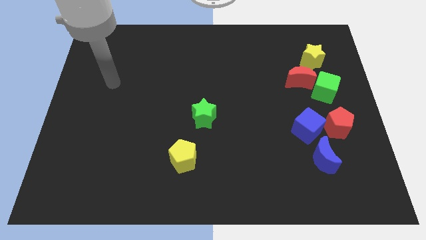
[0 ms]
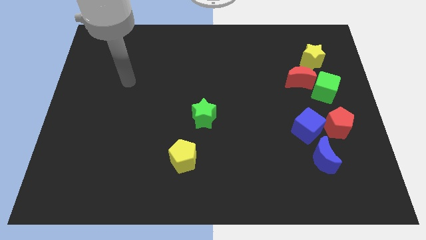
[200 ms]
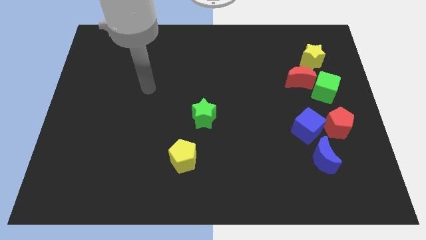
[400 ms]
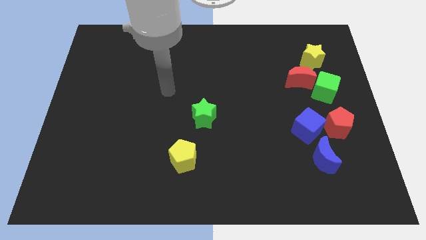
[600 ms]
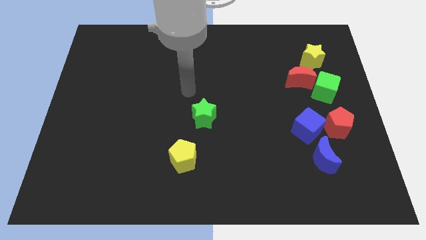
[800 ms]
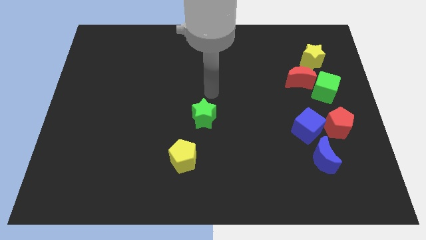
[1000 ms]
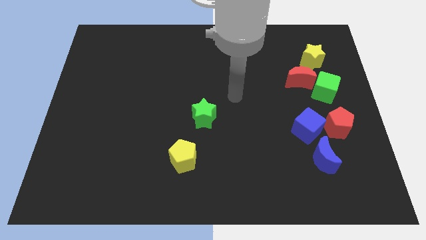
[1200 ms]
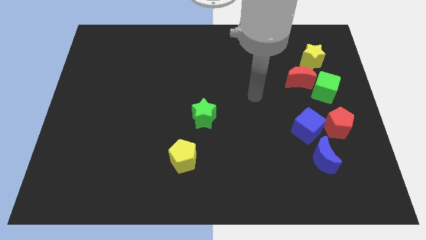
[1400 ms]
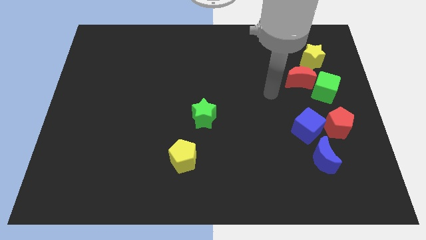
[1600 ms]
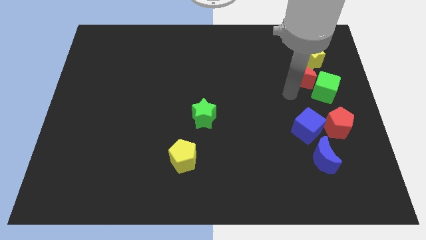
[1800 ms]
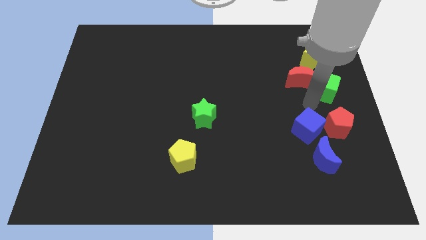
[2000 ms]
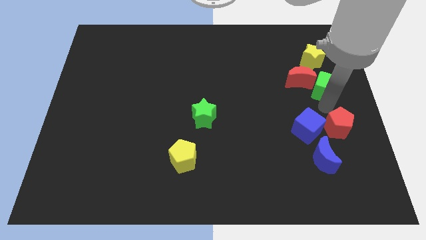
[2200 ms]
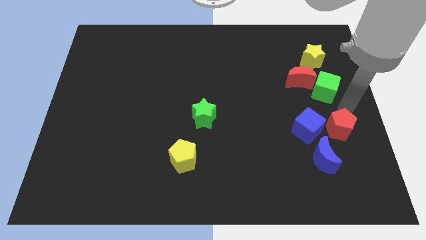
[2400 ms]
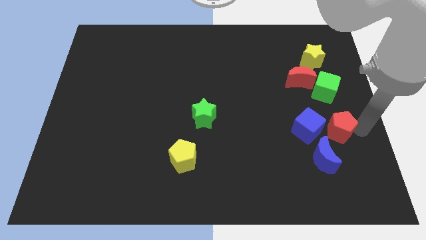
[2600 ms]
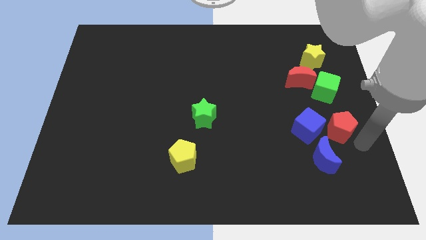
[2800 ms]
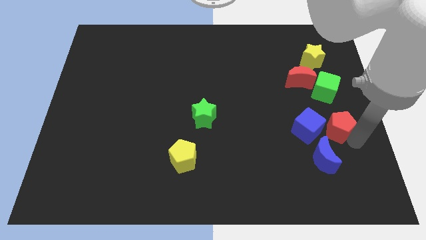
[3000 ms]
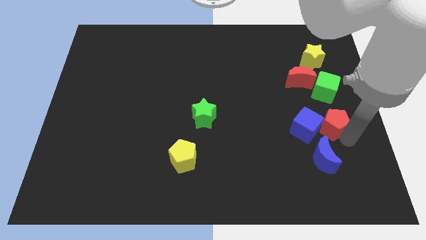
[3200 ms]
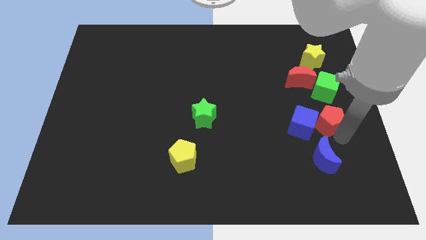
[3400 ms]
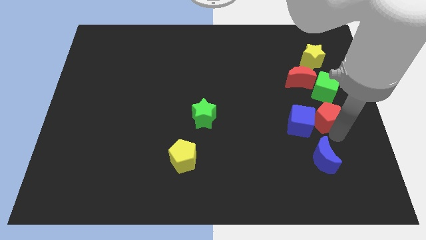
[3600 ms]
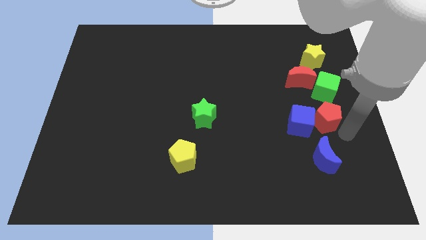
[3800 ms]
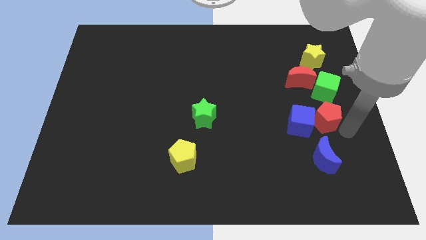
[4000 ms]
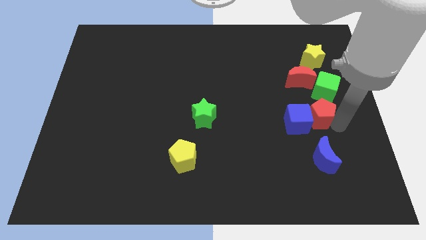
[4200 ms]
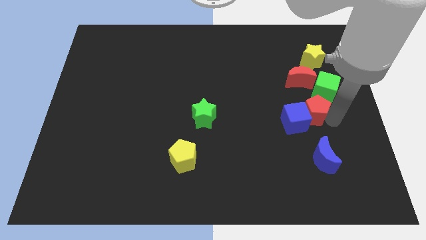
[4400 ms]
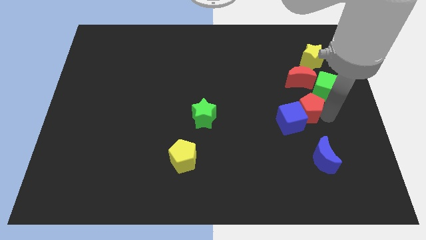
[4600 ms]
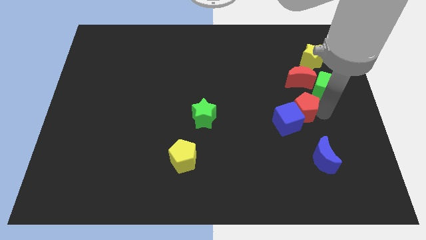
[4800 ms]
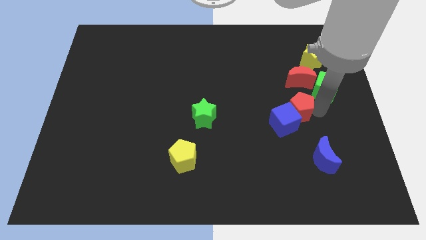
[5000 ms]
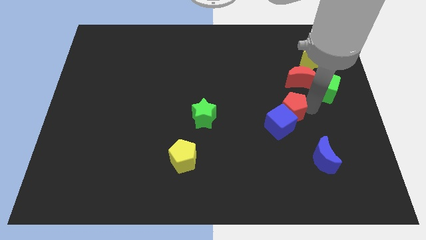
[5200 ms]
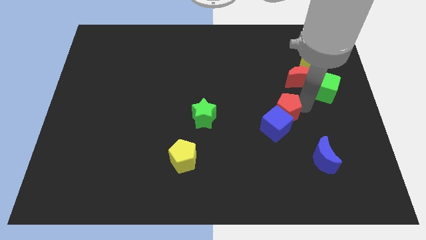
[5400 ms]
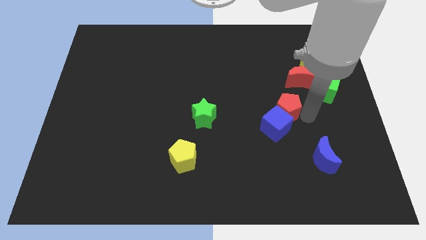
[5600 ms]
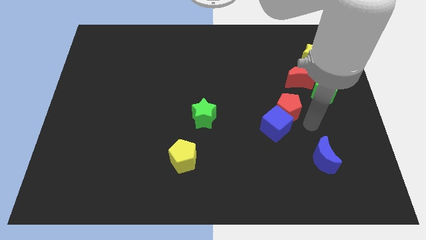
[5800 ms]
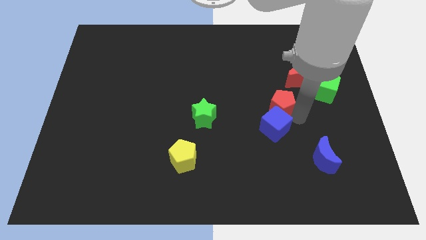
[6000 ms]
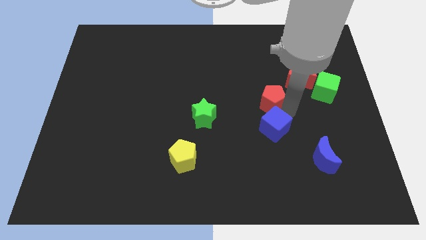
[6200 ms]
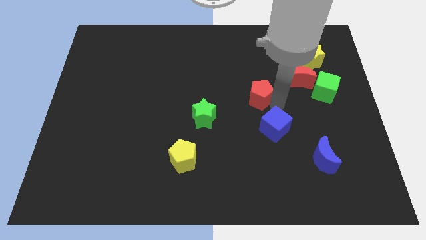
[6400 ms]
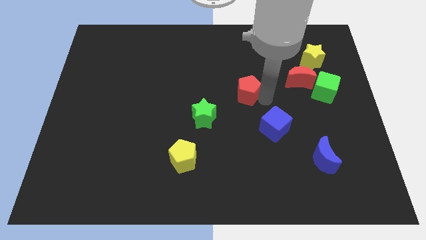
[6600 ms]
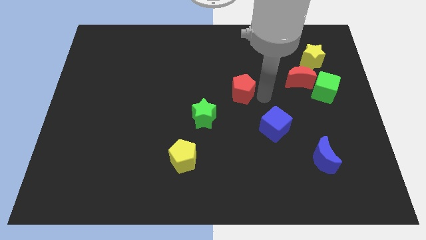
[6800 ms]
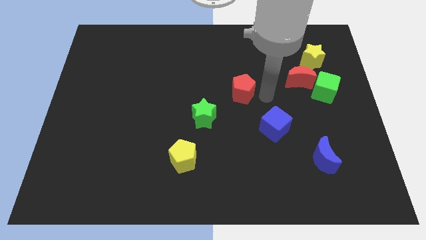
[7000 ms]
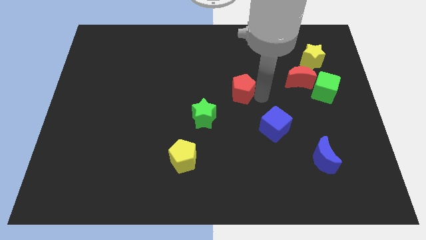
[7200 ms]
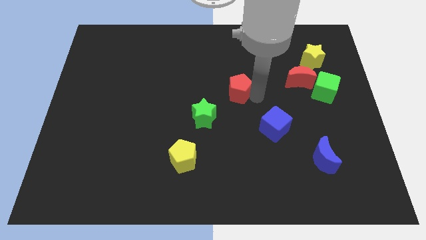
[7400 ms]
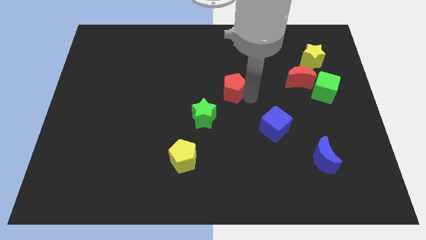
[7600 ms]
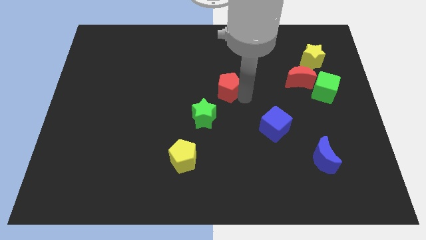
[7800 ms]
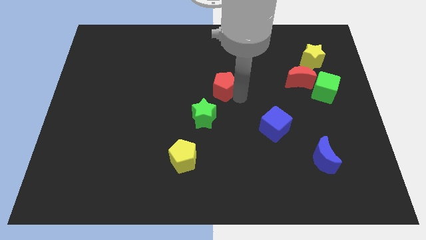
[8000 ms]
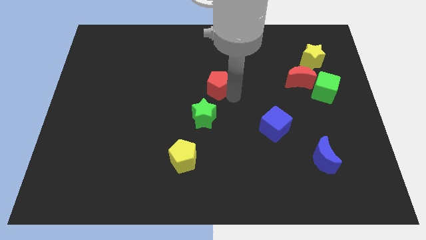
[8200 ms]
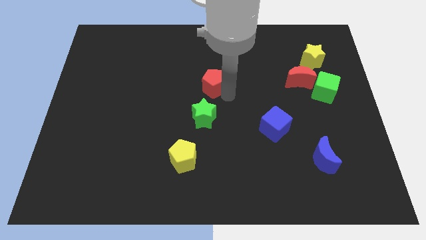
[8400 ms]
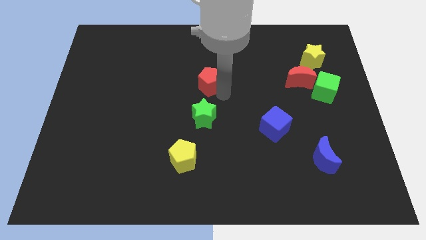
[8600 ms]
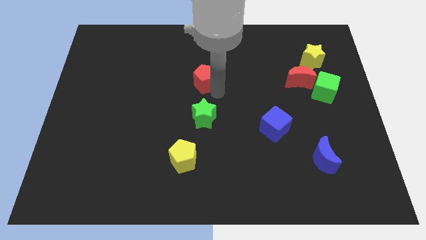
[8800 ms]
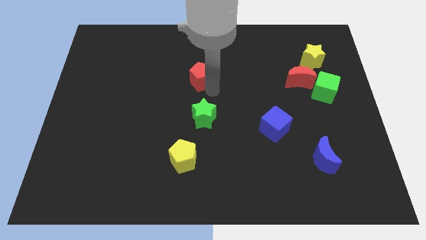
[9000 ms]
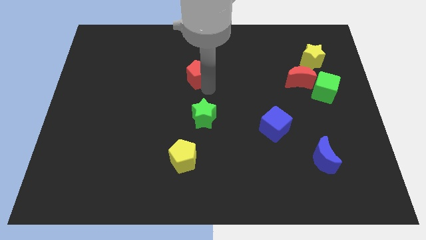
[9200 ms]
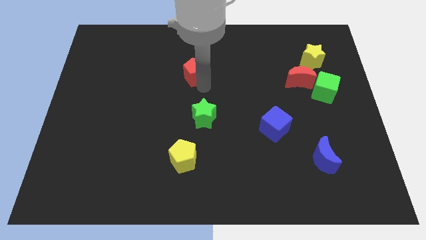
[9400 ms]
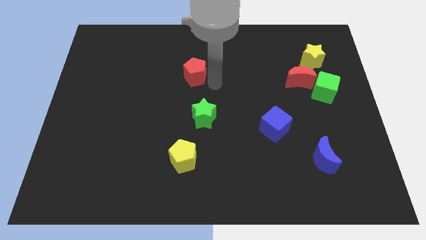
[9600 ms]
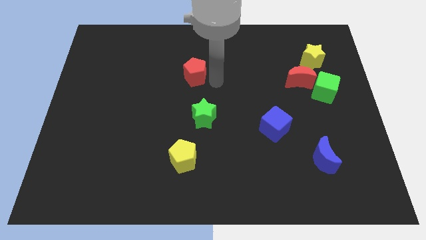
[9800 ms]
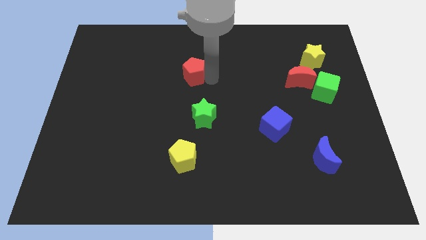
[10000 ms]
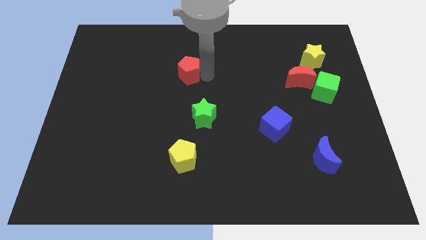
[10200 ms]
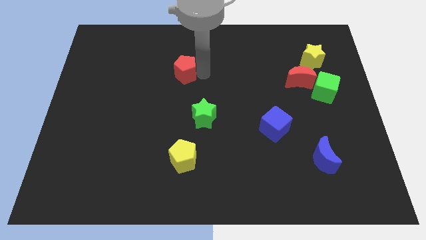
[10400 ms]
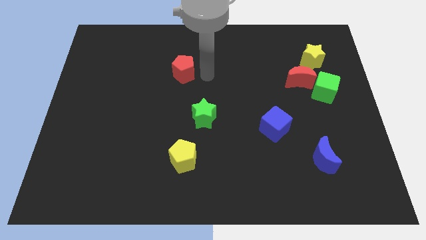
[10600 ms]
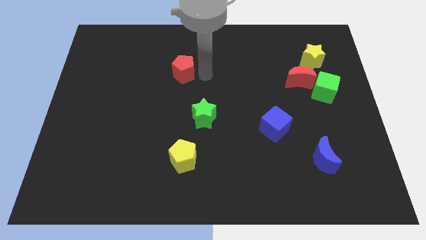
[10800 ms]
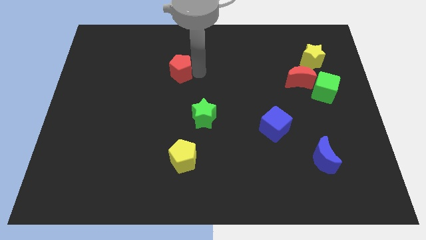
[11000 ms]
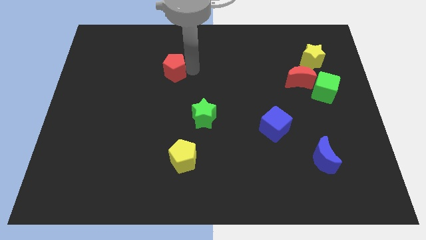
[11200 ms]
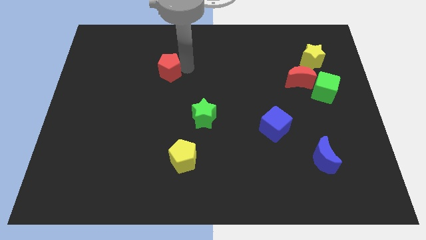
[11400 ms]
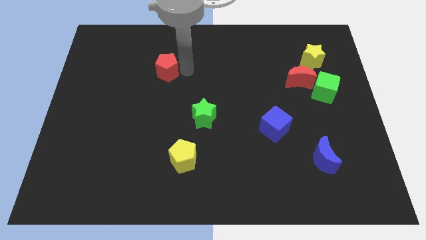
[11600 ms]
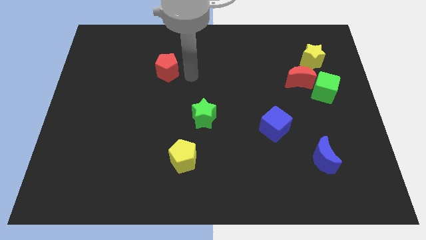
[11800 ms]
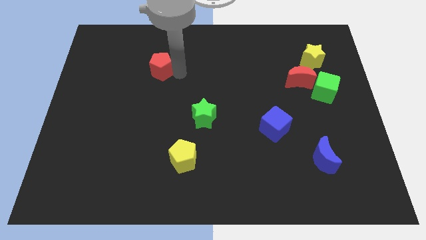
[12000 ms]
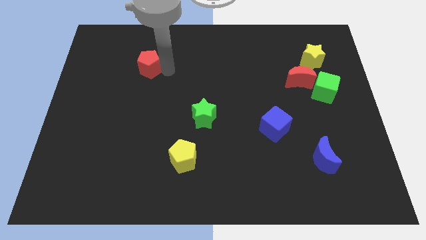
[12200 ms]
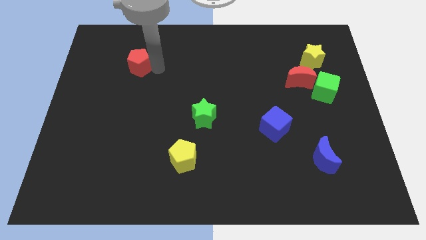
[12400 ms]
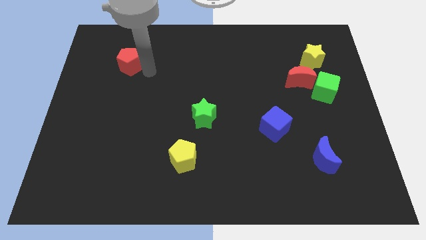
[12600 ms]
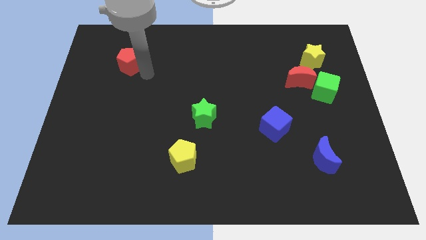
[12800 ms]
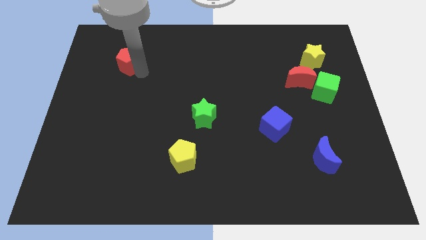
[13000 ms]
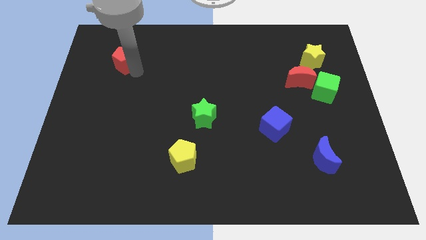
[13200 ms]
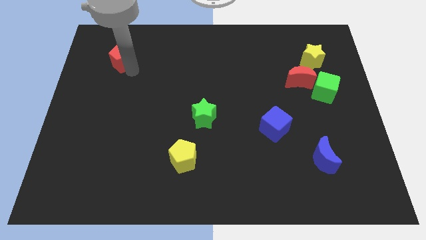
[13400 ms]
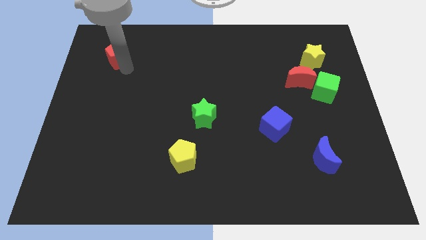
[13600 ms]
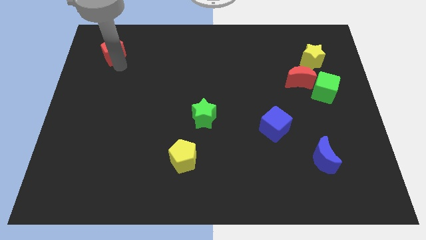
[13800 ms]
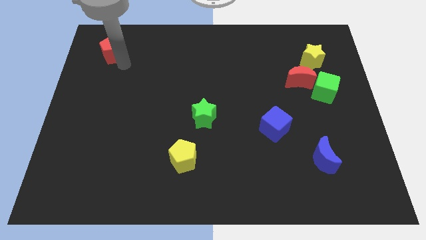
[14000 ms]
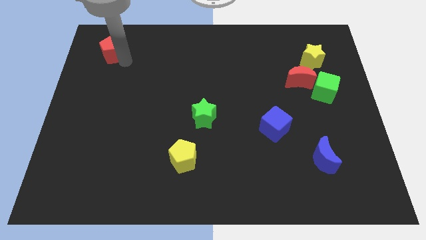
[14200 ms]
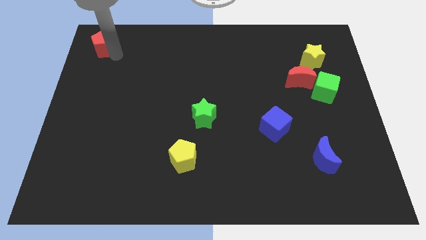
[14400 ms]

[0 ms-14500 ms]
put the red pentagon to the top left of the board
